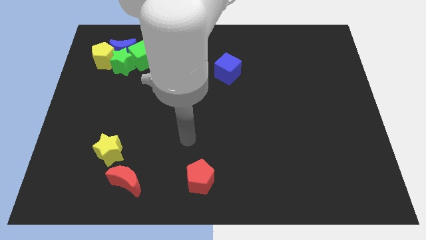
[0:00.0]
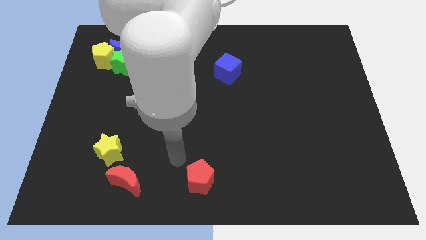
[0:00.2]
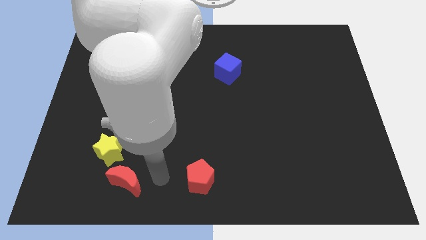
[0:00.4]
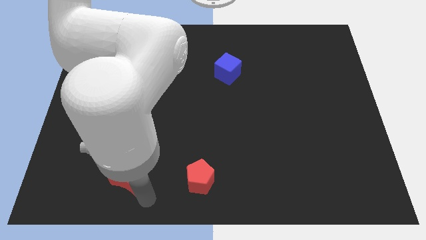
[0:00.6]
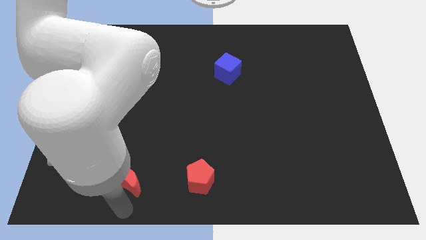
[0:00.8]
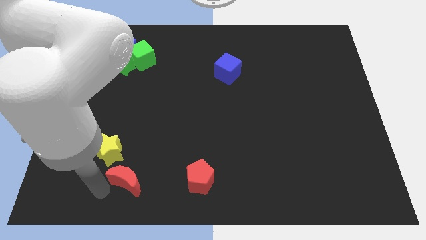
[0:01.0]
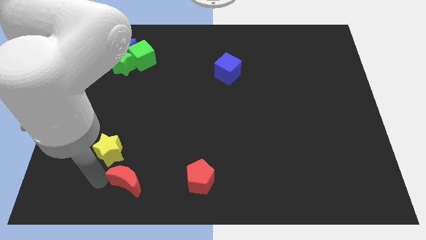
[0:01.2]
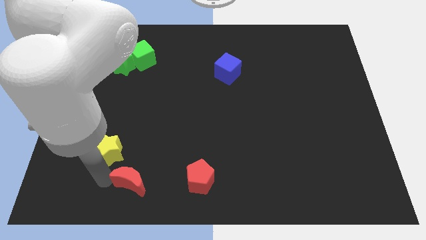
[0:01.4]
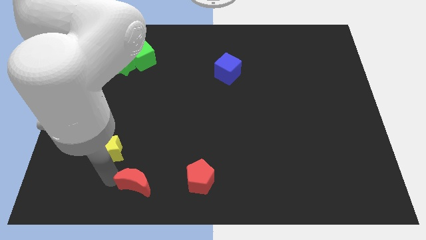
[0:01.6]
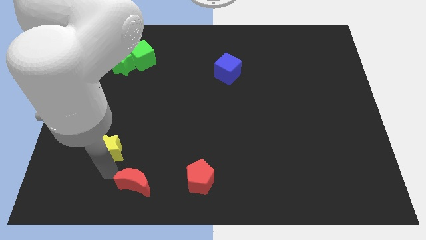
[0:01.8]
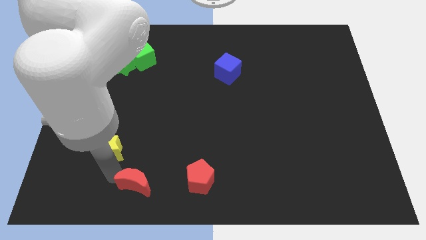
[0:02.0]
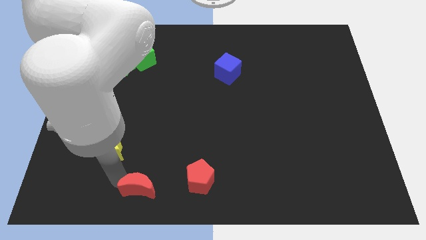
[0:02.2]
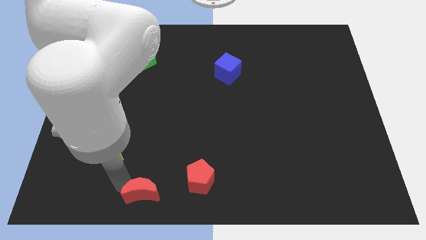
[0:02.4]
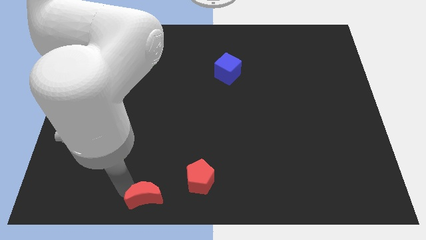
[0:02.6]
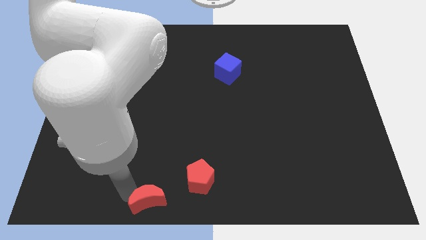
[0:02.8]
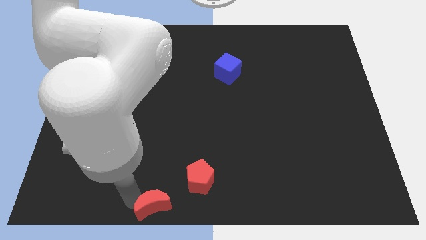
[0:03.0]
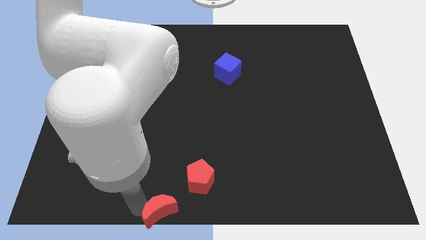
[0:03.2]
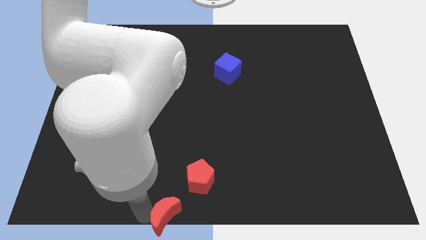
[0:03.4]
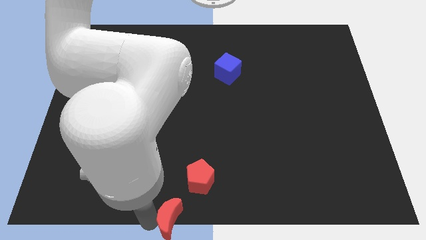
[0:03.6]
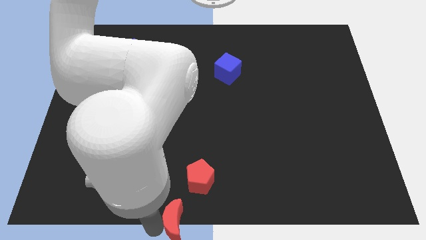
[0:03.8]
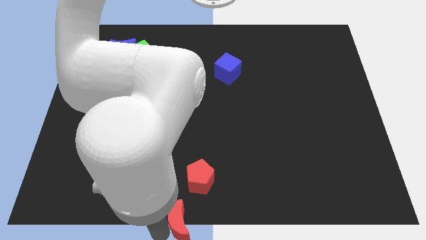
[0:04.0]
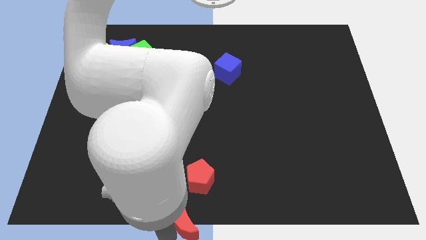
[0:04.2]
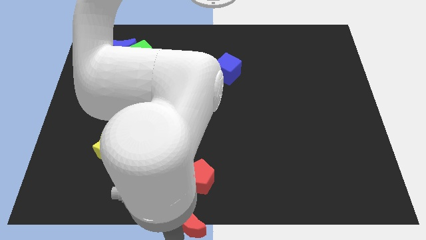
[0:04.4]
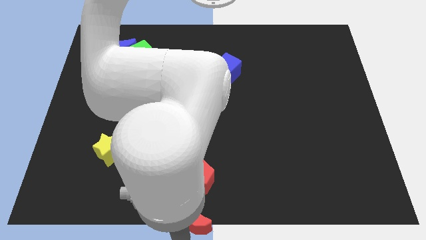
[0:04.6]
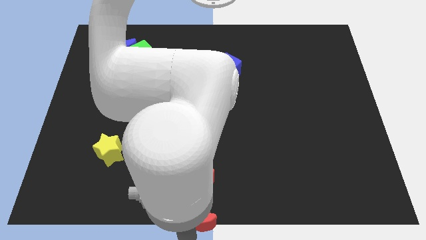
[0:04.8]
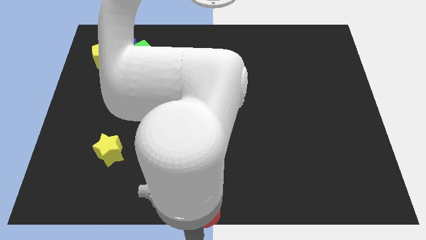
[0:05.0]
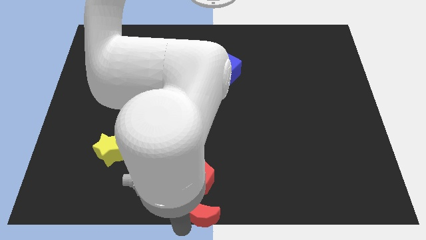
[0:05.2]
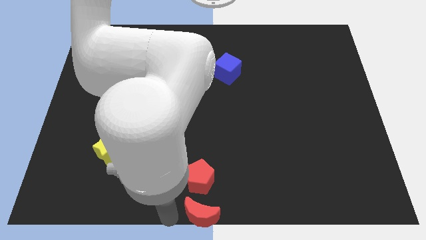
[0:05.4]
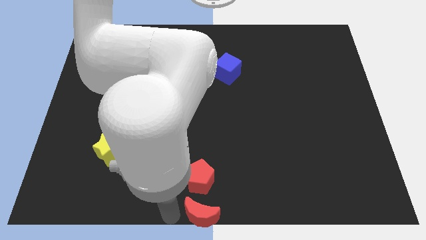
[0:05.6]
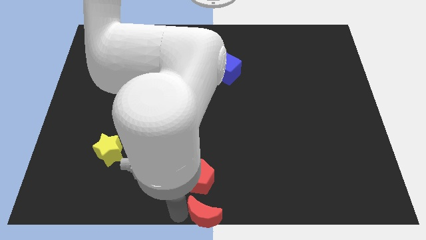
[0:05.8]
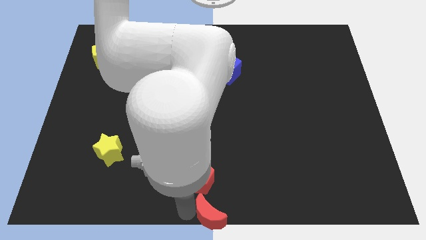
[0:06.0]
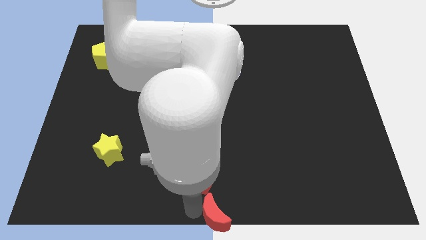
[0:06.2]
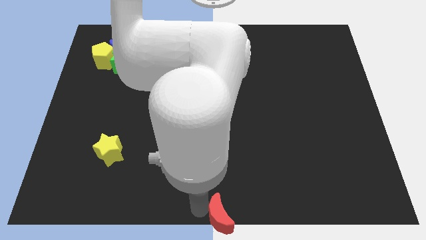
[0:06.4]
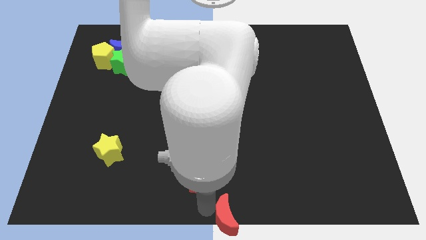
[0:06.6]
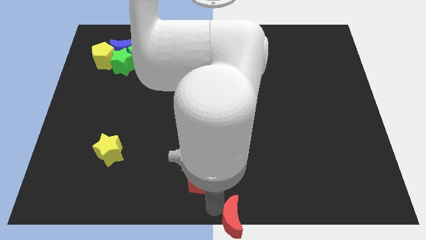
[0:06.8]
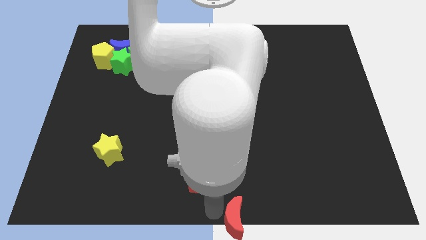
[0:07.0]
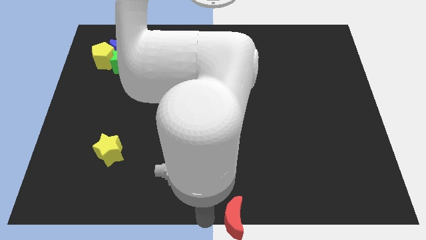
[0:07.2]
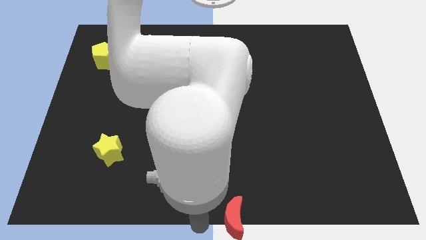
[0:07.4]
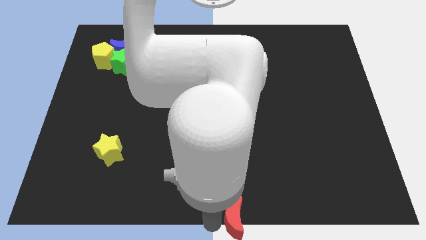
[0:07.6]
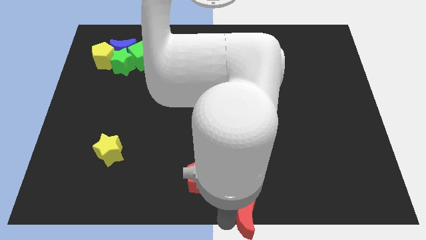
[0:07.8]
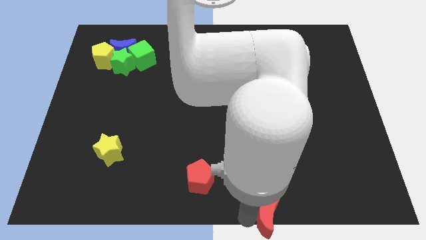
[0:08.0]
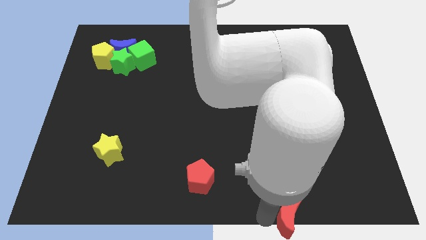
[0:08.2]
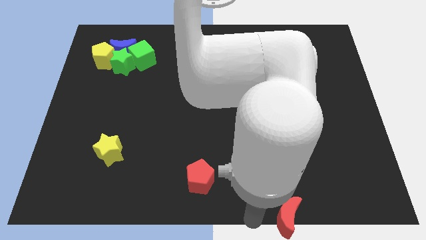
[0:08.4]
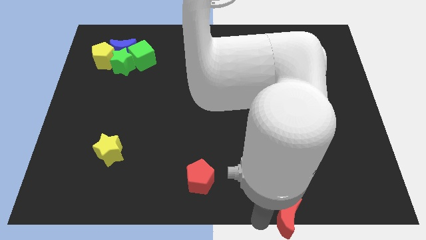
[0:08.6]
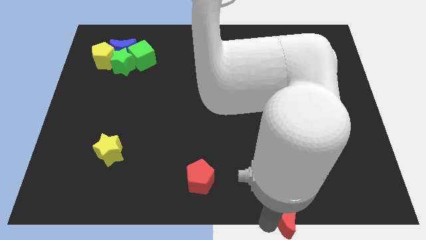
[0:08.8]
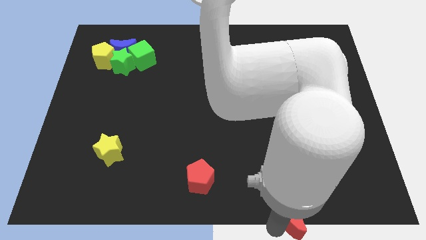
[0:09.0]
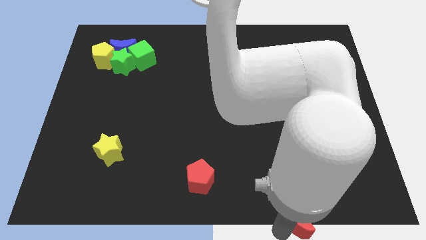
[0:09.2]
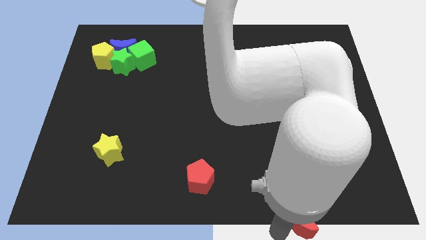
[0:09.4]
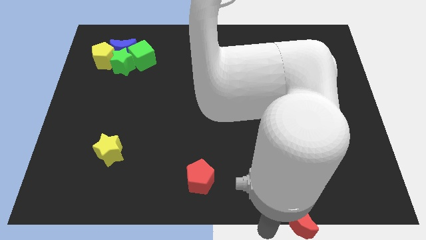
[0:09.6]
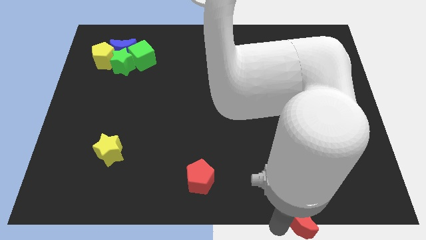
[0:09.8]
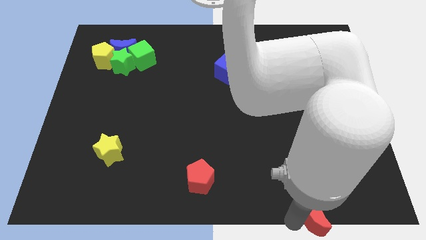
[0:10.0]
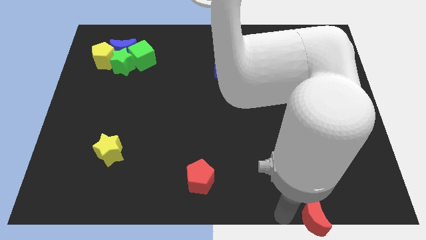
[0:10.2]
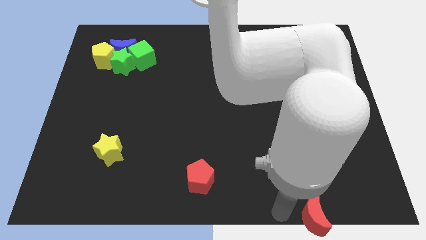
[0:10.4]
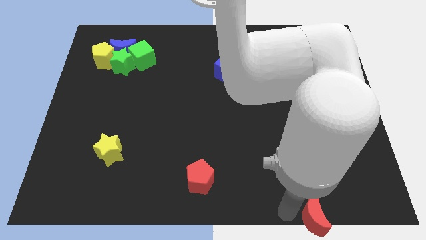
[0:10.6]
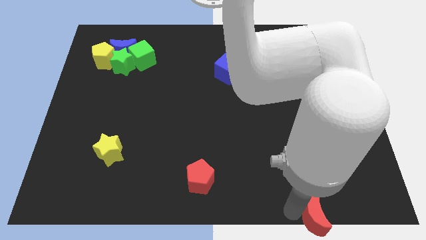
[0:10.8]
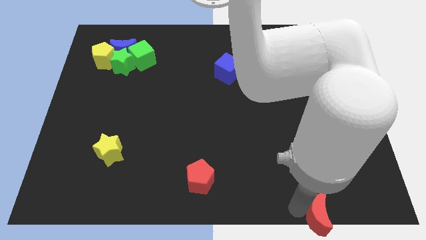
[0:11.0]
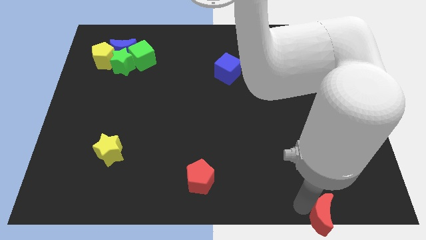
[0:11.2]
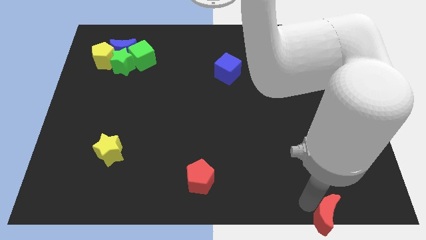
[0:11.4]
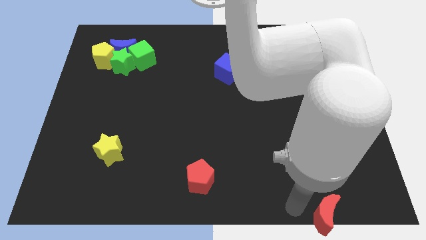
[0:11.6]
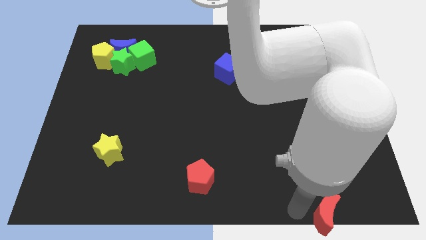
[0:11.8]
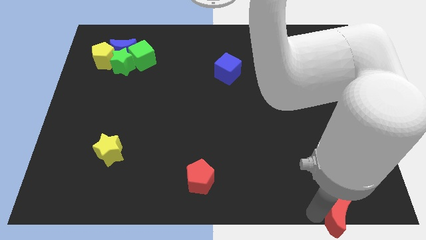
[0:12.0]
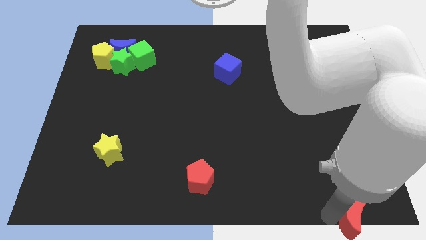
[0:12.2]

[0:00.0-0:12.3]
move the red moon to the bottom right of the board

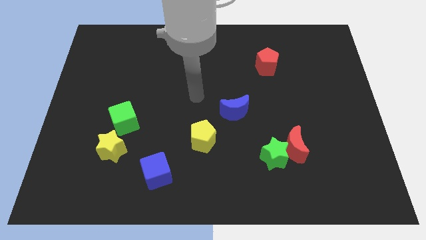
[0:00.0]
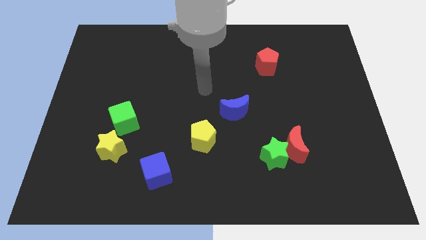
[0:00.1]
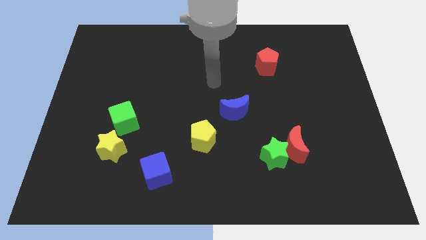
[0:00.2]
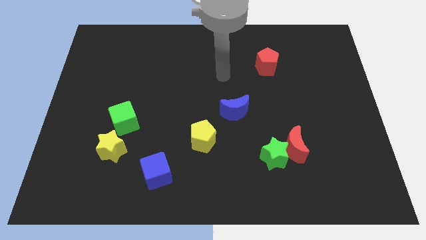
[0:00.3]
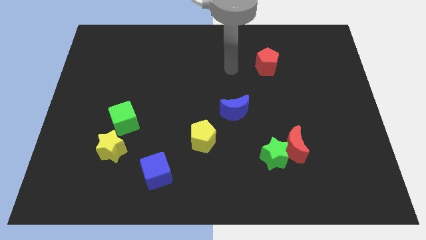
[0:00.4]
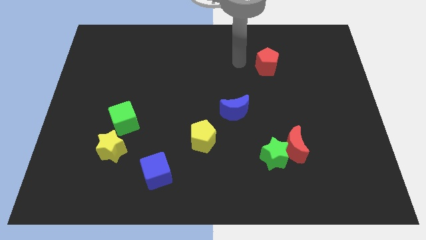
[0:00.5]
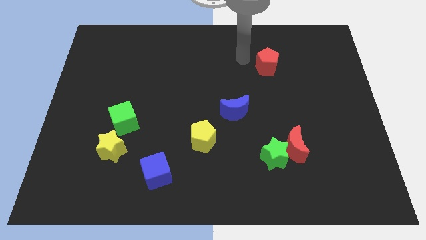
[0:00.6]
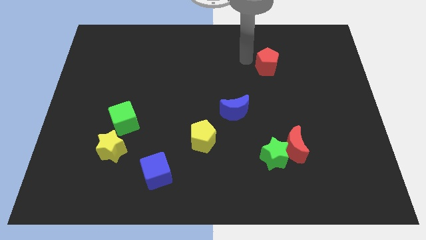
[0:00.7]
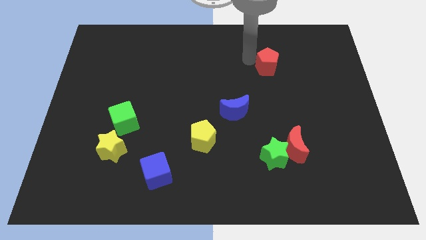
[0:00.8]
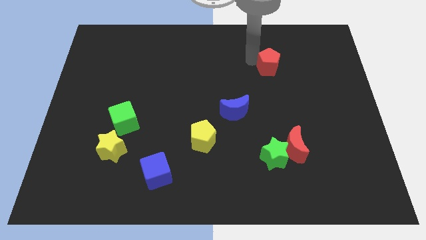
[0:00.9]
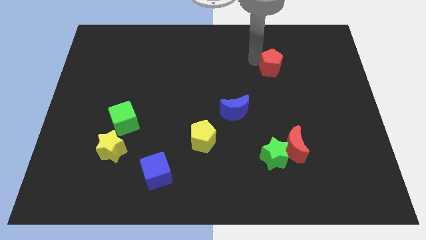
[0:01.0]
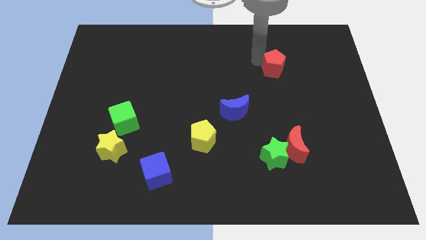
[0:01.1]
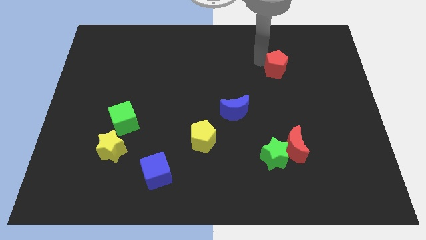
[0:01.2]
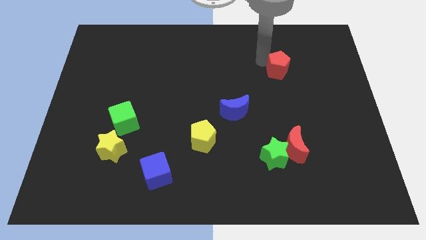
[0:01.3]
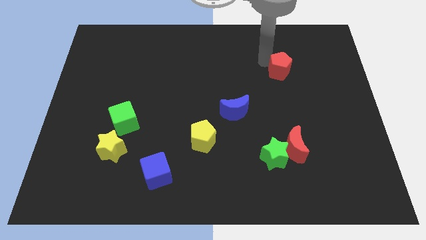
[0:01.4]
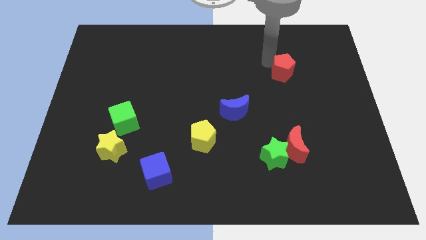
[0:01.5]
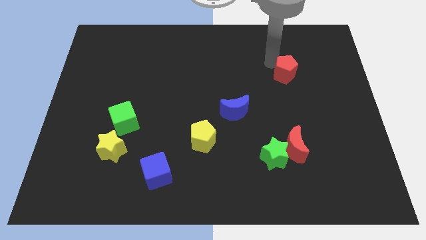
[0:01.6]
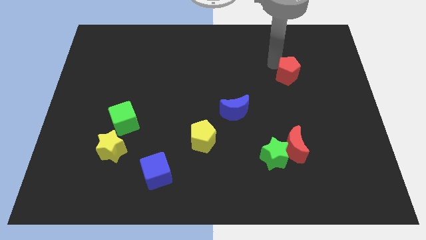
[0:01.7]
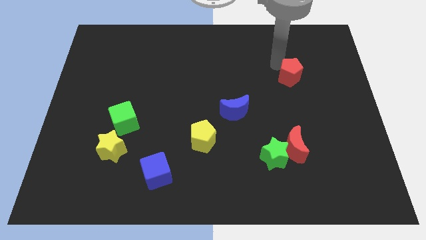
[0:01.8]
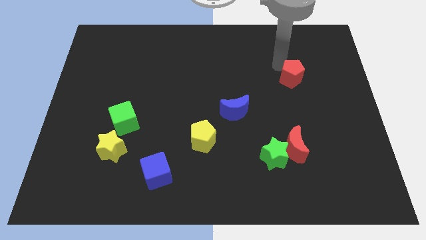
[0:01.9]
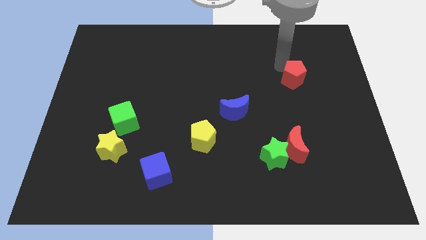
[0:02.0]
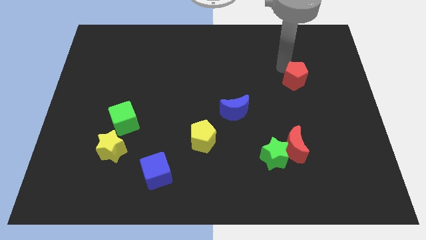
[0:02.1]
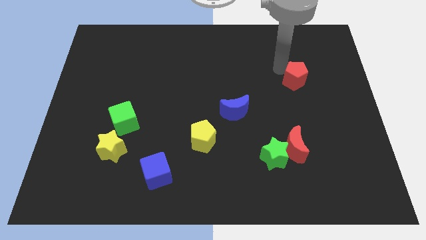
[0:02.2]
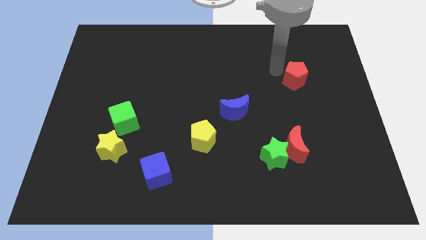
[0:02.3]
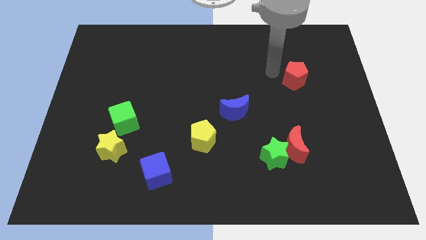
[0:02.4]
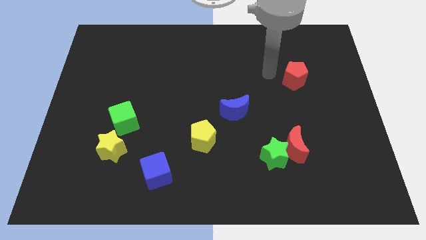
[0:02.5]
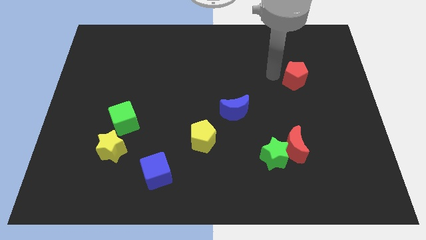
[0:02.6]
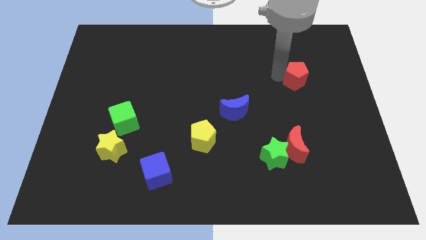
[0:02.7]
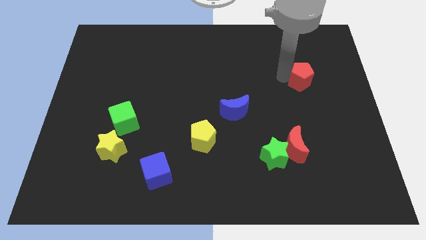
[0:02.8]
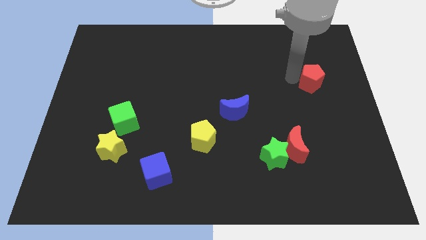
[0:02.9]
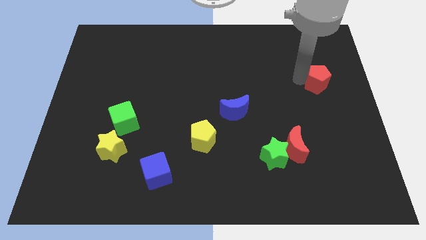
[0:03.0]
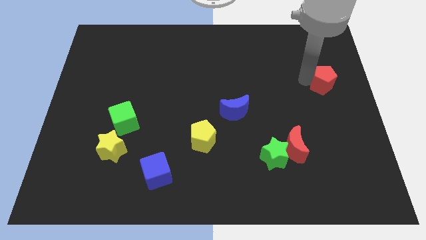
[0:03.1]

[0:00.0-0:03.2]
move the red pentagon to the center right
